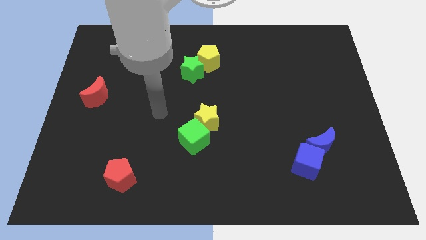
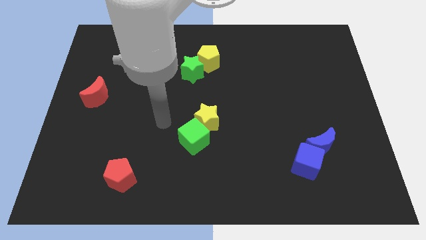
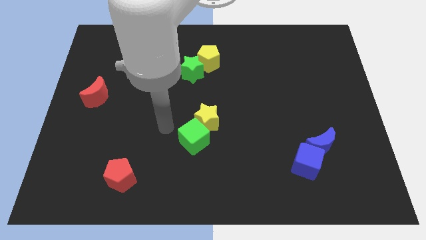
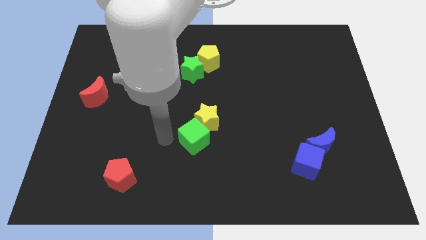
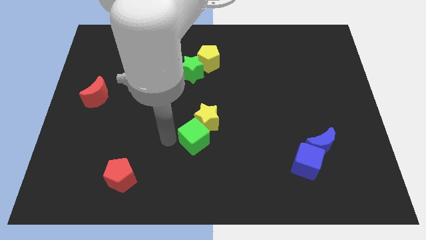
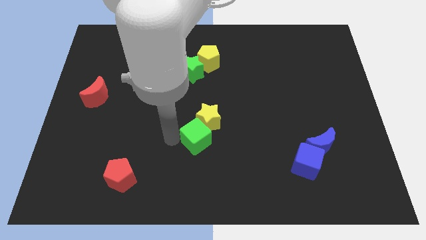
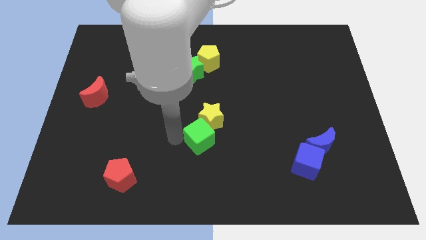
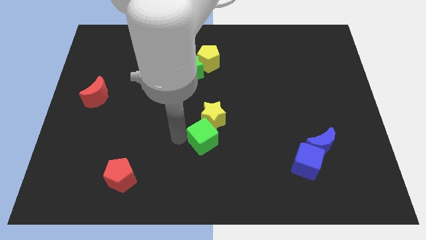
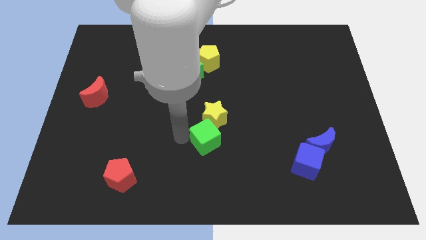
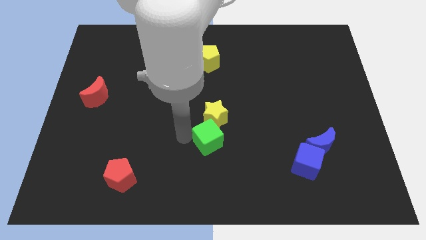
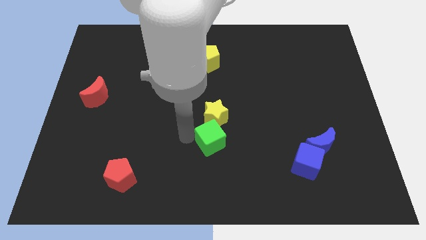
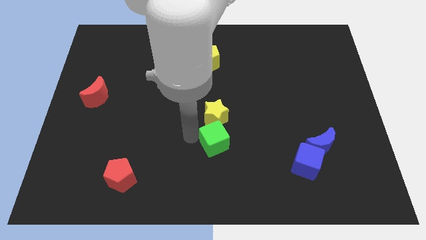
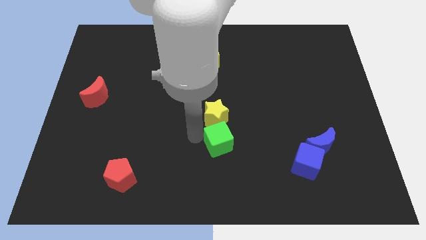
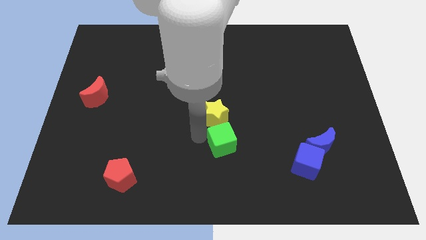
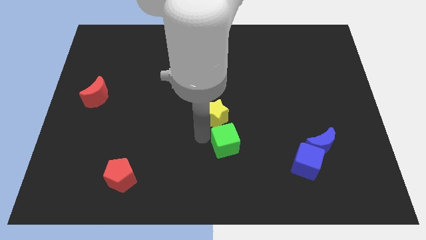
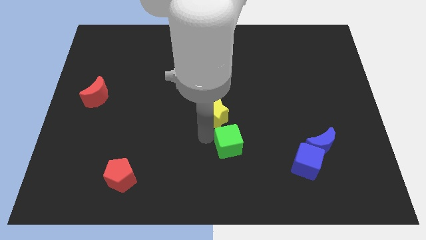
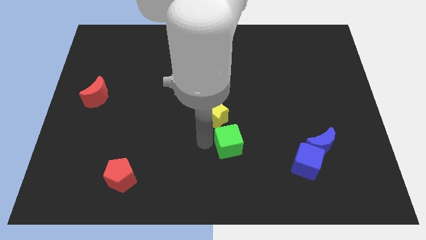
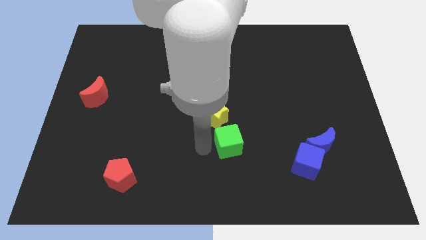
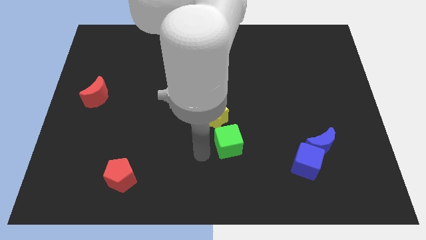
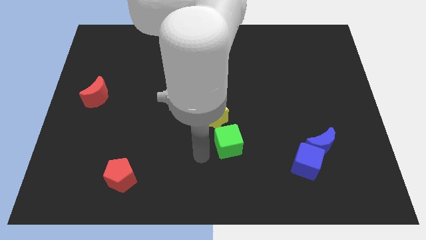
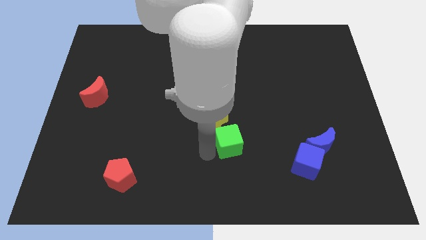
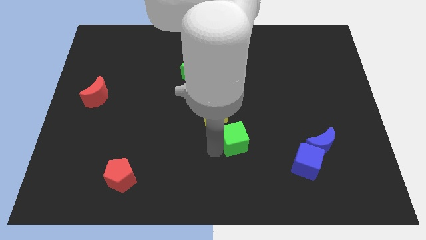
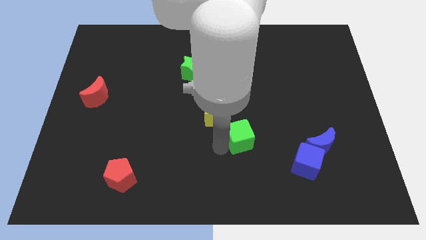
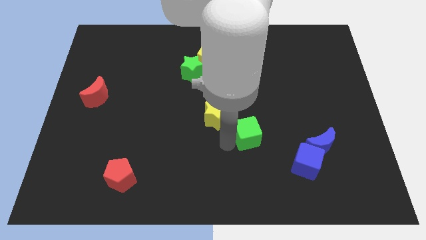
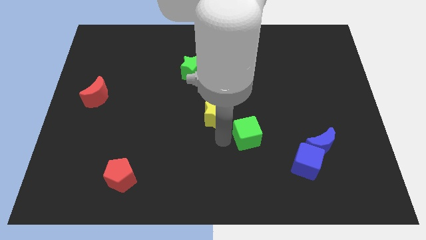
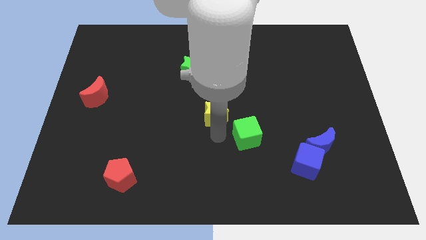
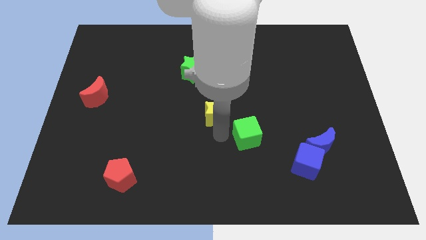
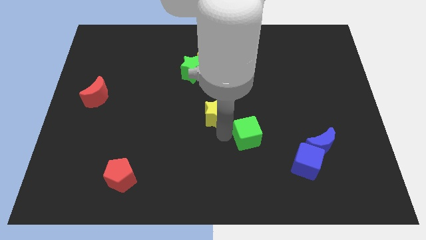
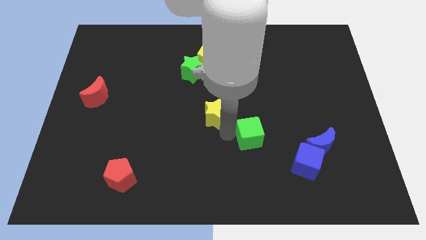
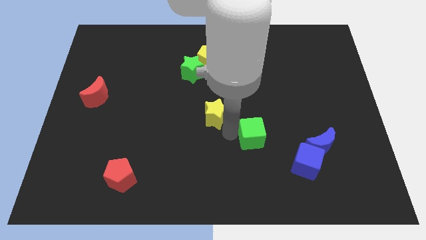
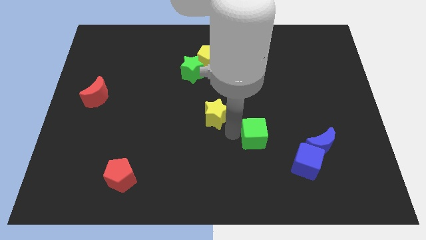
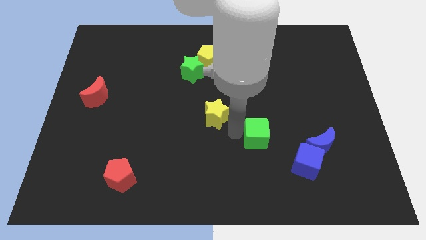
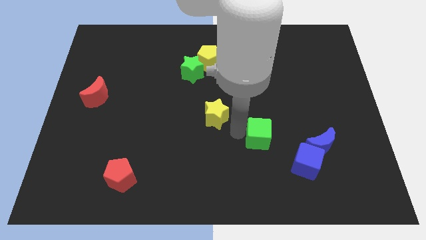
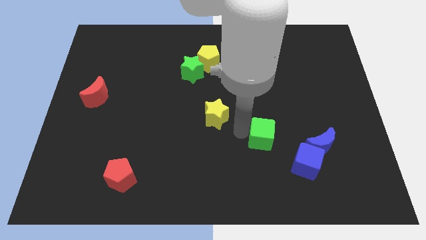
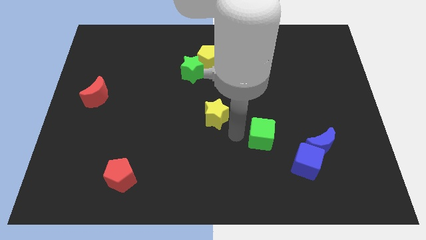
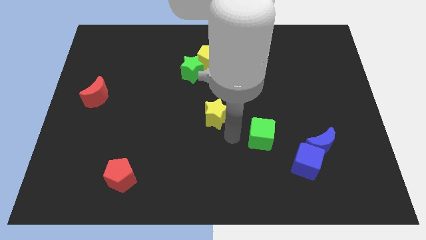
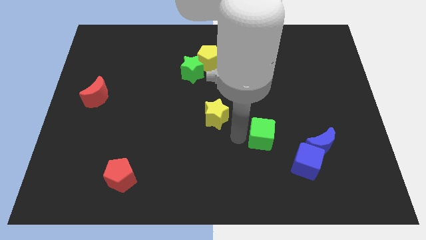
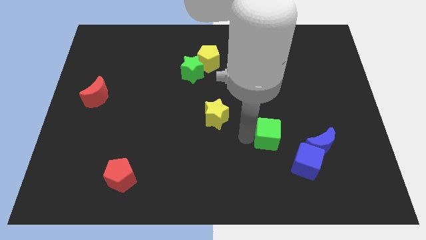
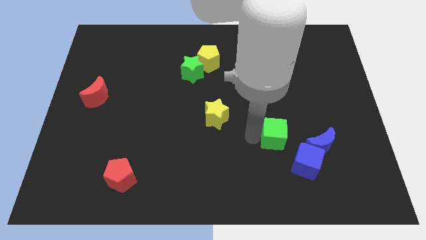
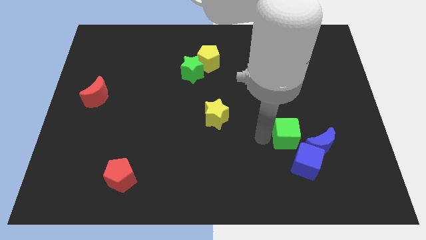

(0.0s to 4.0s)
slide the green cube to the right

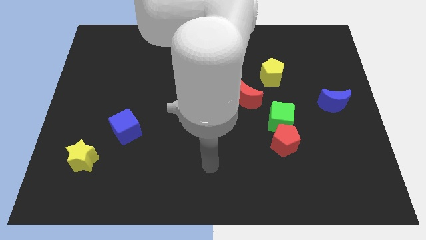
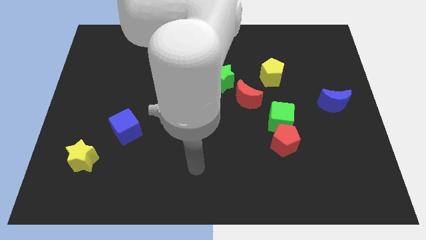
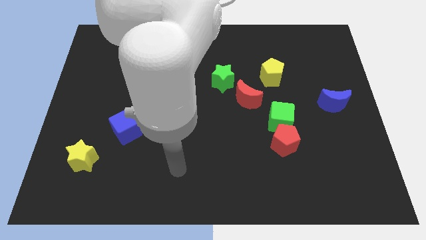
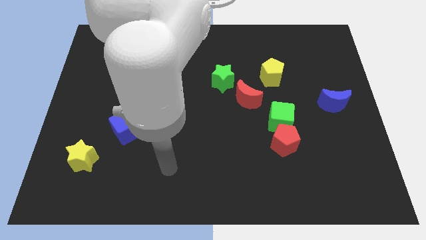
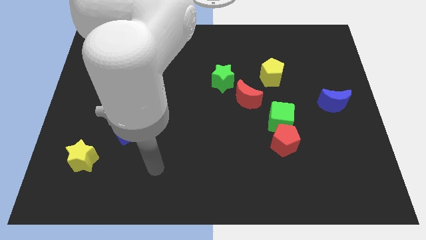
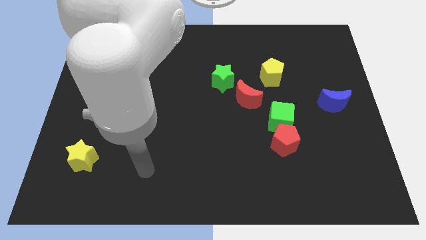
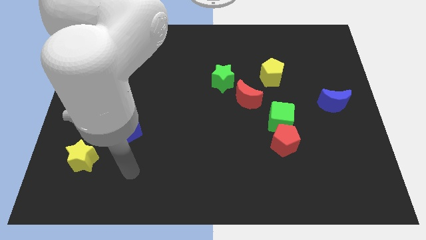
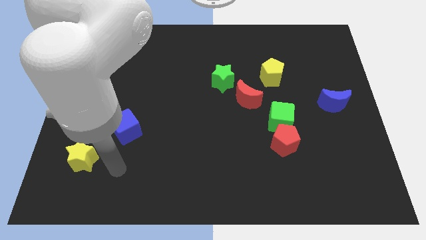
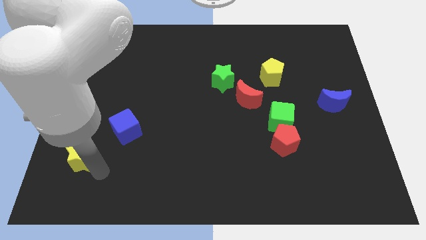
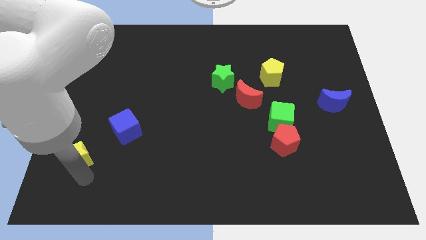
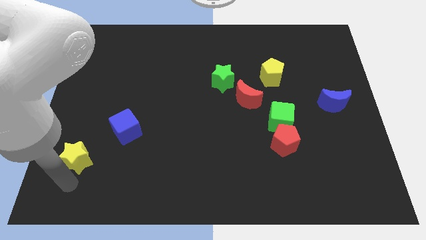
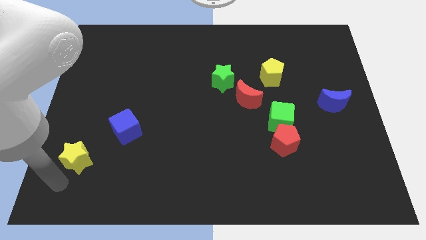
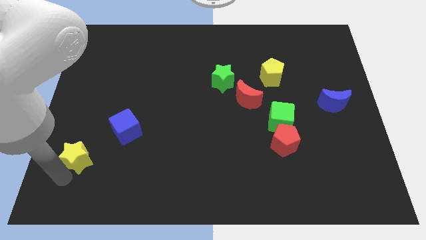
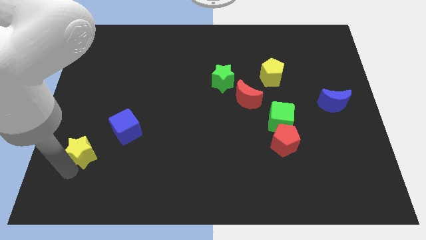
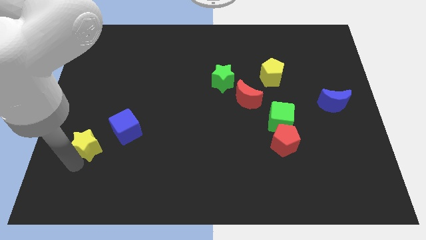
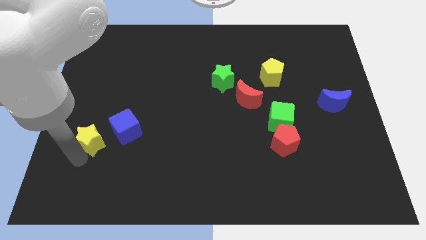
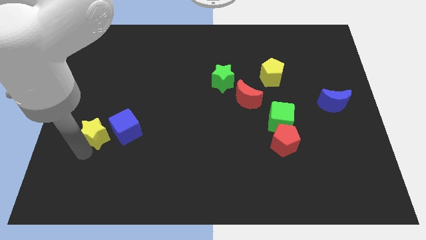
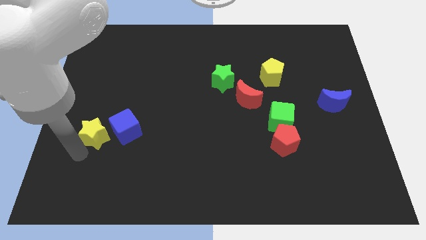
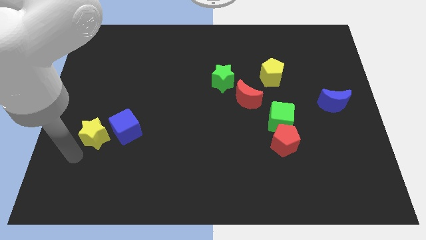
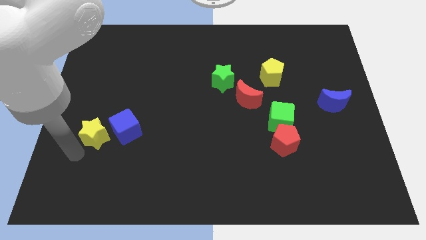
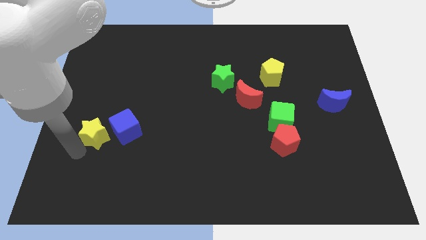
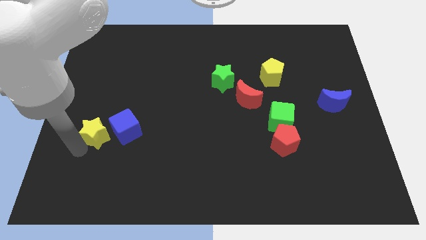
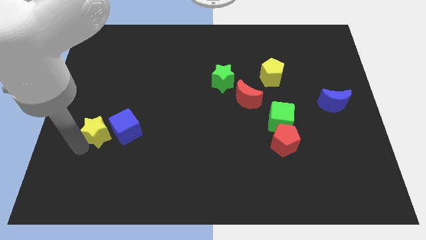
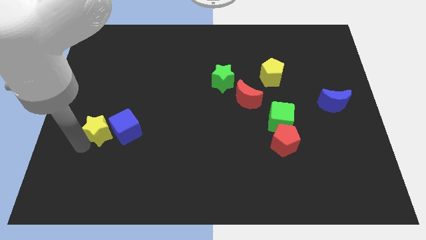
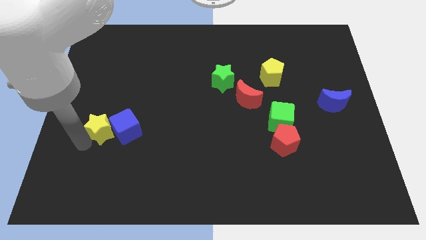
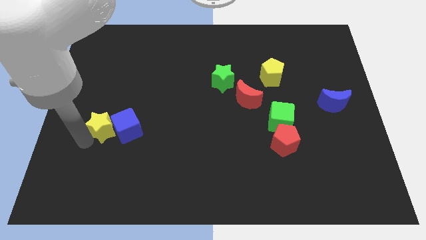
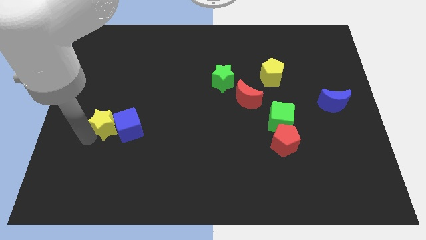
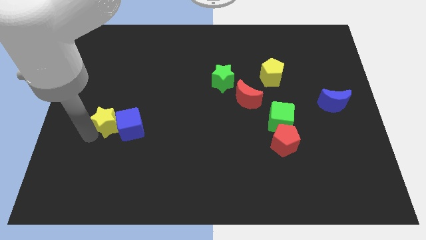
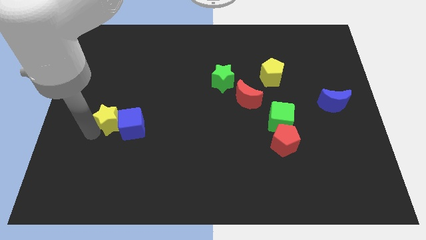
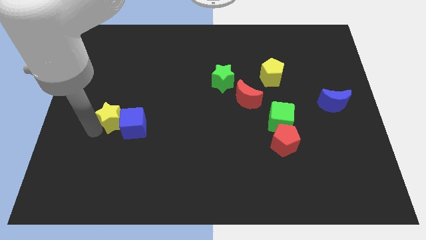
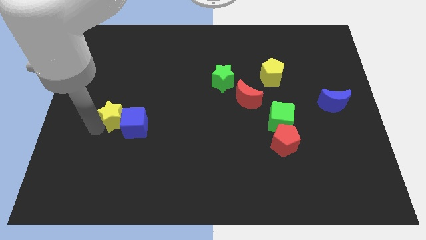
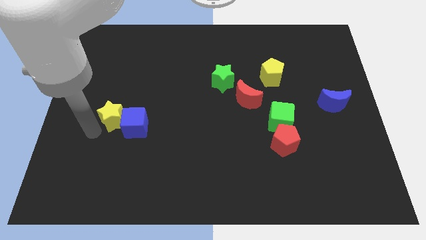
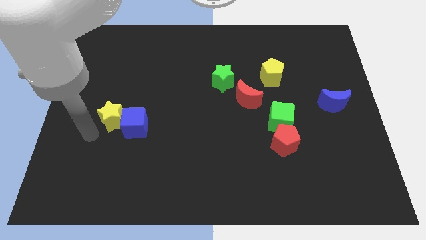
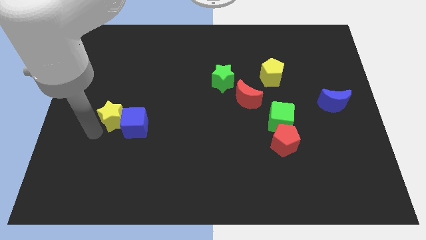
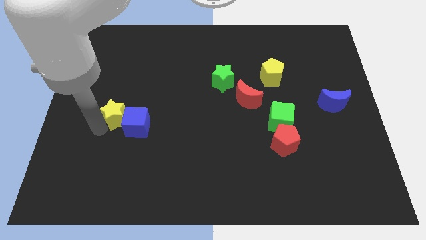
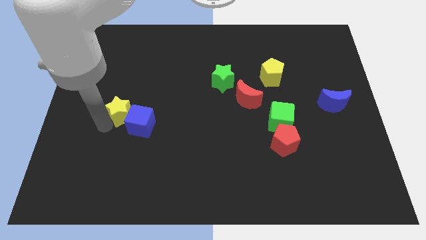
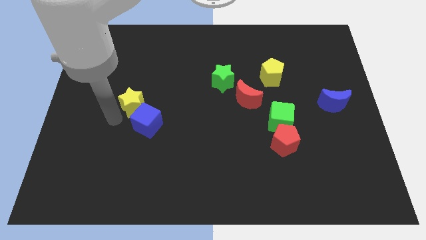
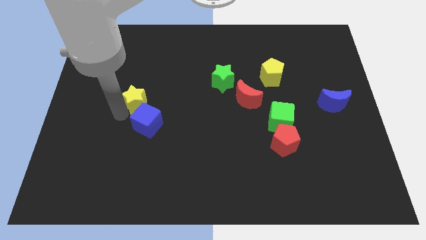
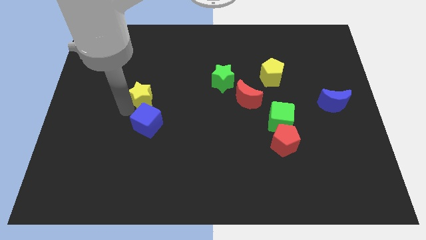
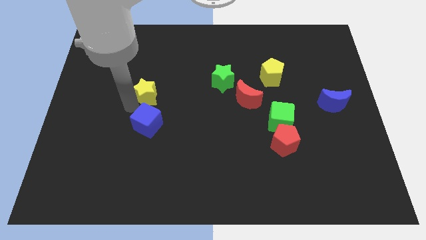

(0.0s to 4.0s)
slide the yellow star diagonally up and right
